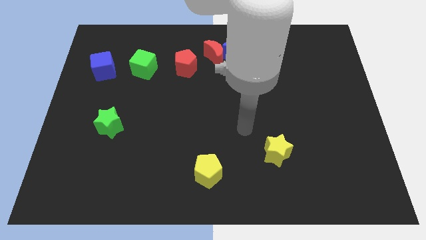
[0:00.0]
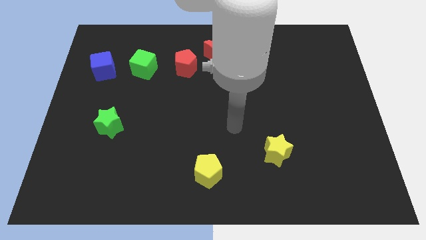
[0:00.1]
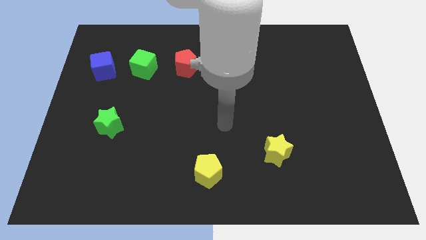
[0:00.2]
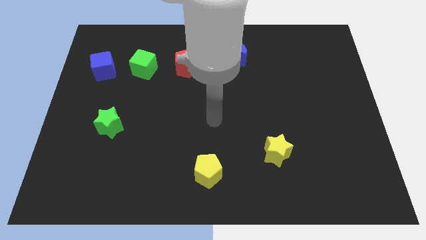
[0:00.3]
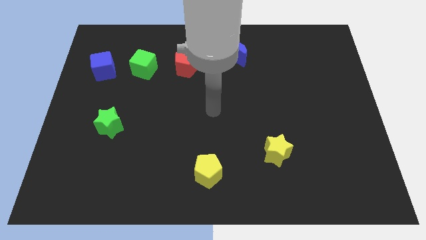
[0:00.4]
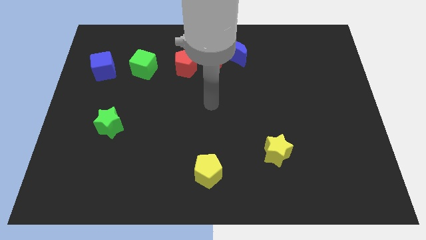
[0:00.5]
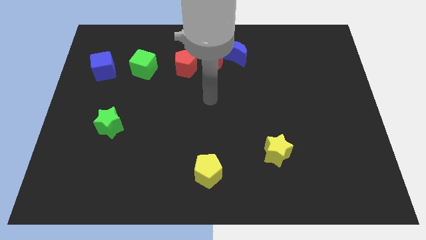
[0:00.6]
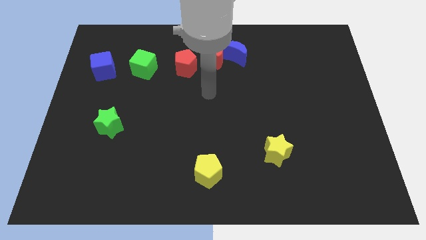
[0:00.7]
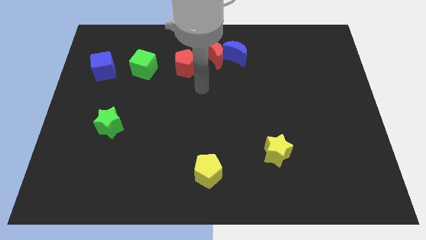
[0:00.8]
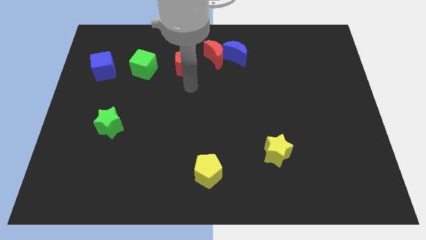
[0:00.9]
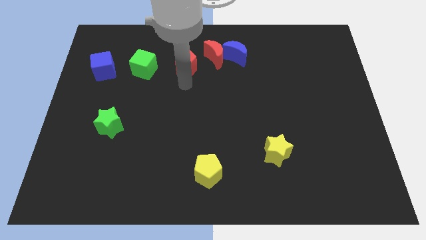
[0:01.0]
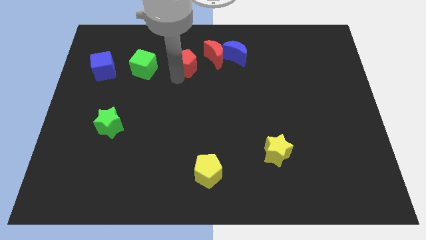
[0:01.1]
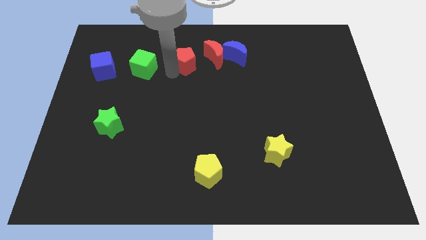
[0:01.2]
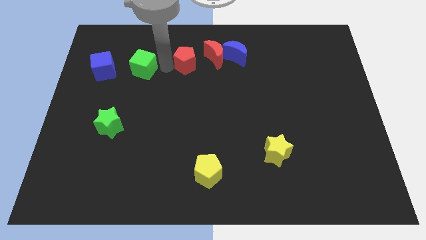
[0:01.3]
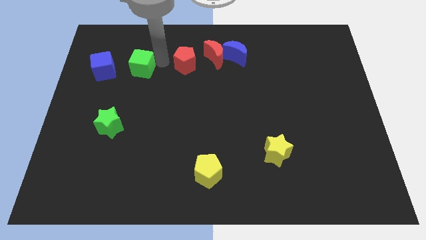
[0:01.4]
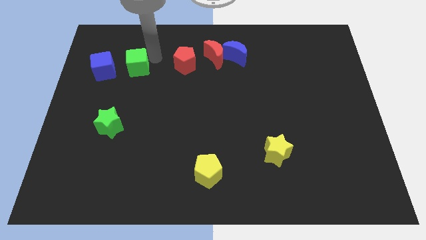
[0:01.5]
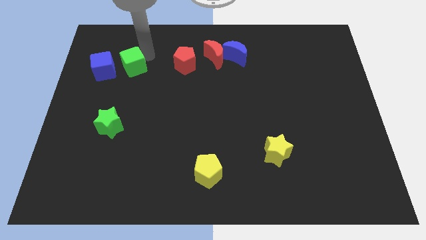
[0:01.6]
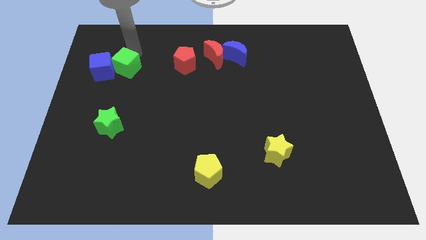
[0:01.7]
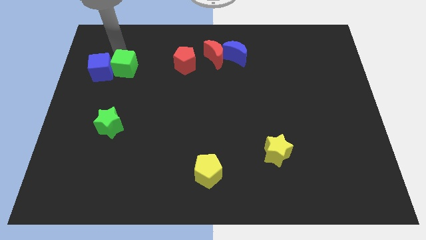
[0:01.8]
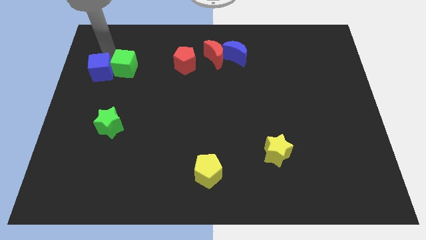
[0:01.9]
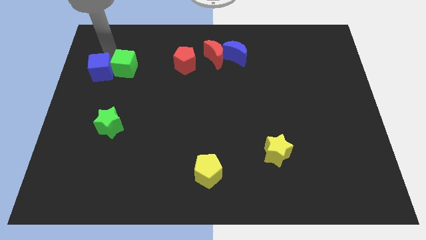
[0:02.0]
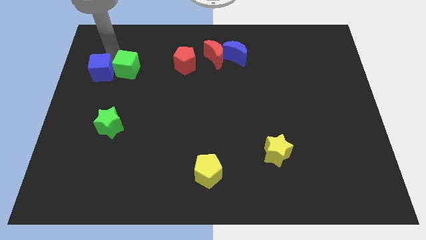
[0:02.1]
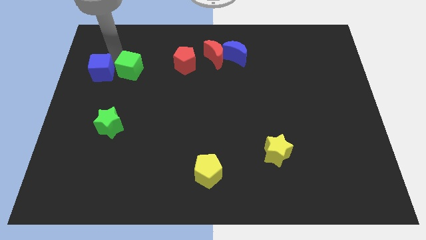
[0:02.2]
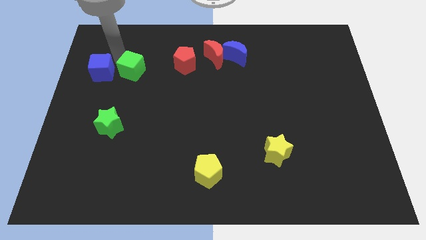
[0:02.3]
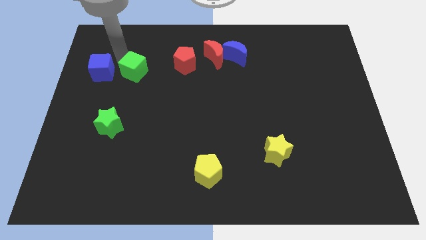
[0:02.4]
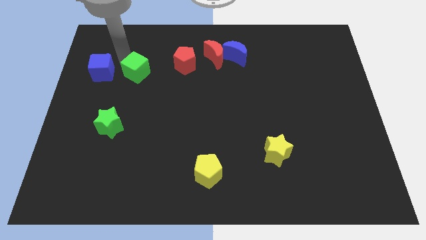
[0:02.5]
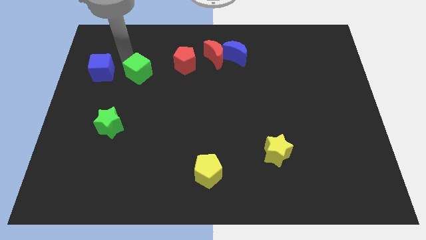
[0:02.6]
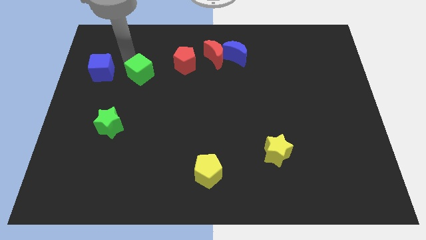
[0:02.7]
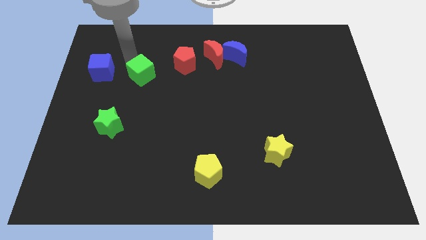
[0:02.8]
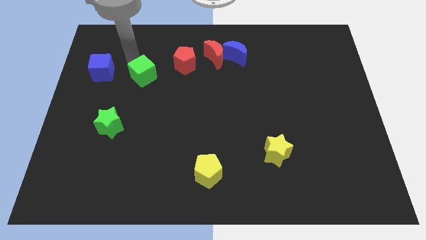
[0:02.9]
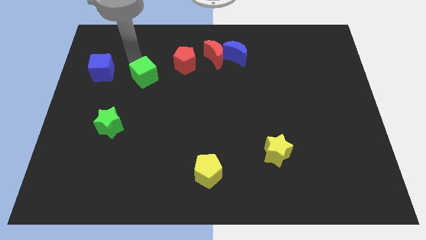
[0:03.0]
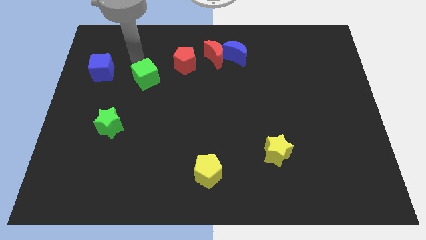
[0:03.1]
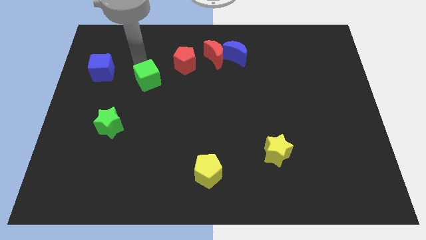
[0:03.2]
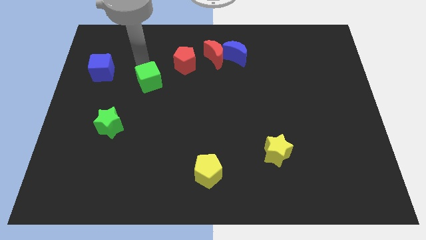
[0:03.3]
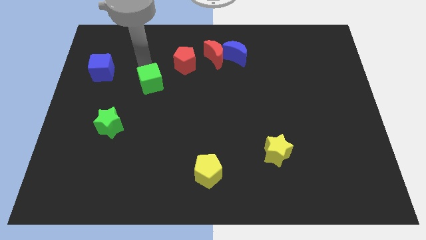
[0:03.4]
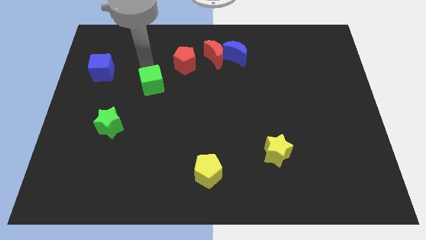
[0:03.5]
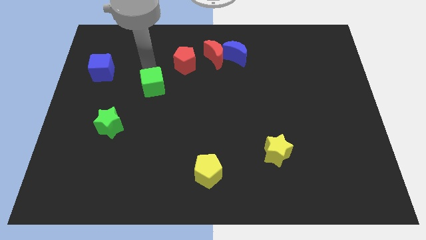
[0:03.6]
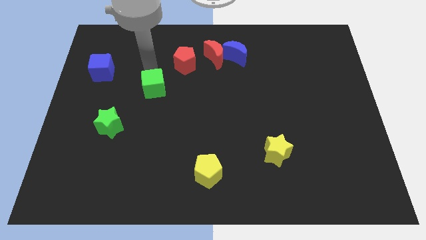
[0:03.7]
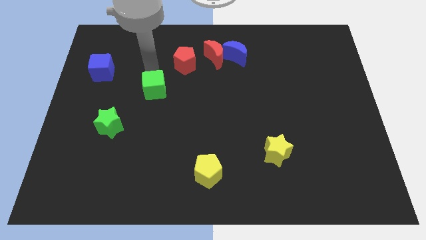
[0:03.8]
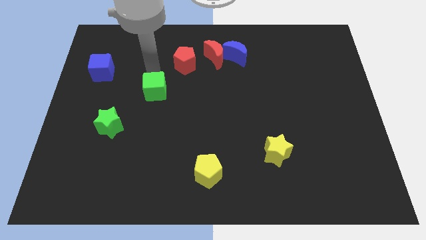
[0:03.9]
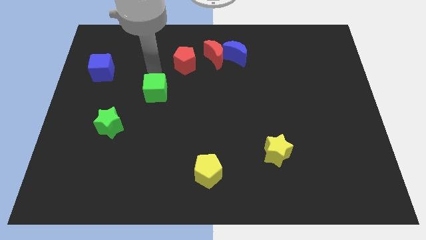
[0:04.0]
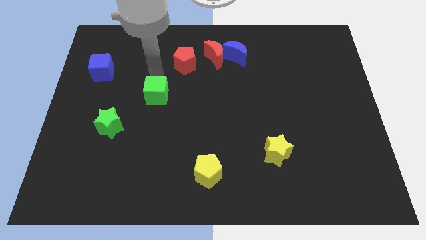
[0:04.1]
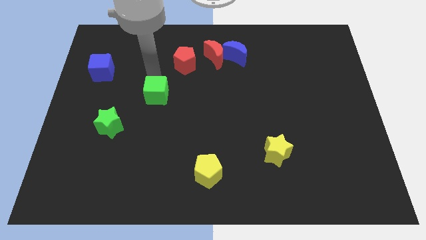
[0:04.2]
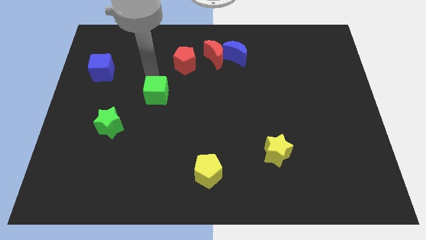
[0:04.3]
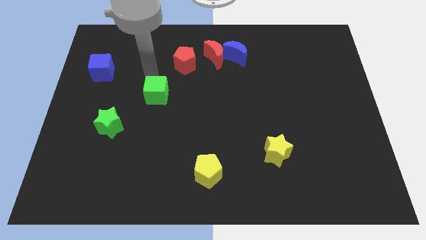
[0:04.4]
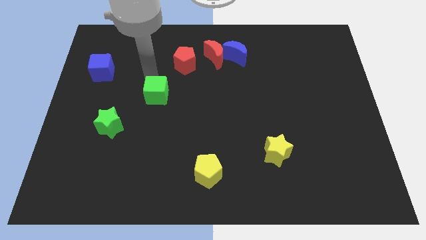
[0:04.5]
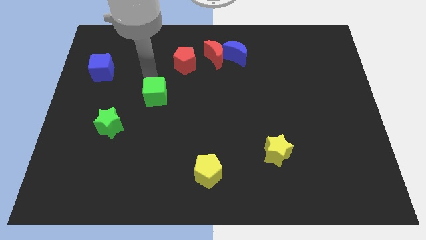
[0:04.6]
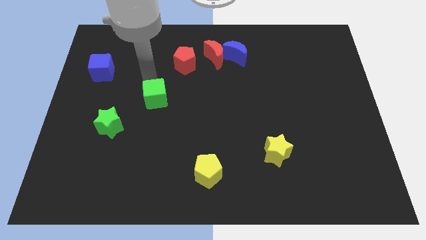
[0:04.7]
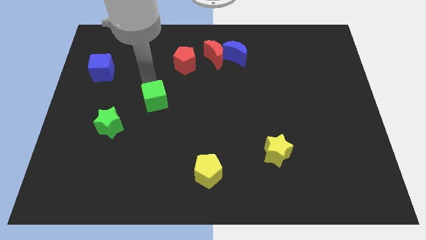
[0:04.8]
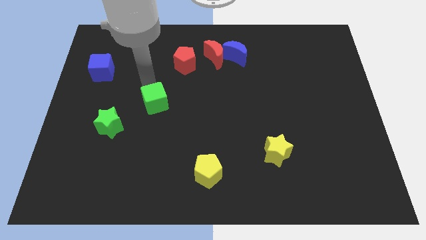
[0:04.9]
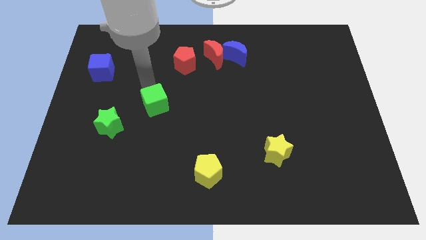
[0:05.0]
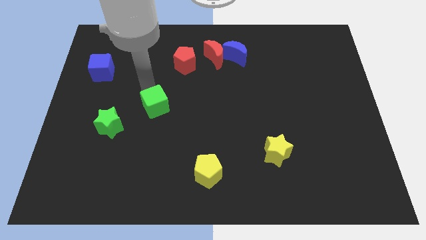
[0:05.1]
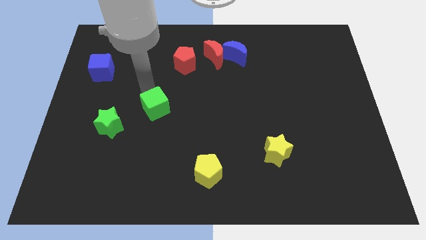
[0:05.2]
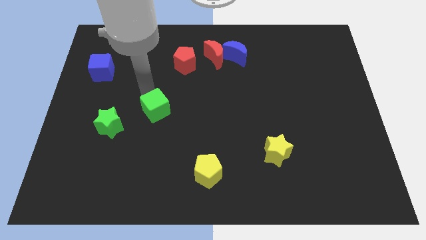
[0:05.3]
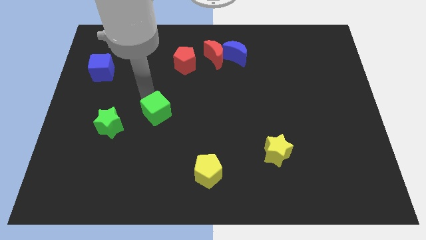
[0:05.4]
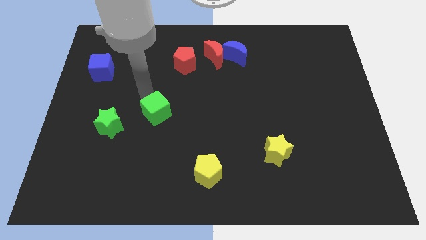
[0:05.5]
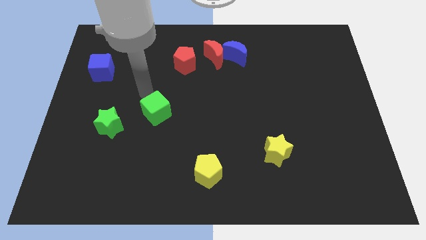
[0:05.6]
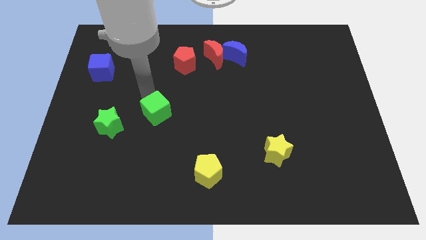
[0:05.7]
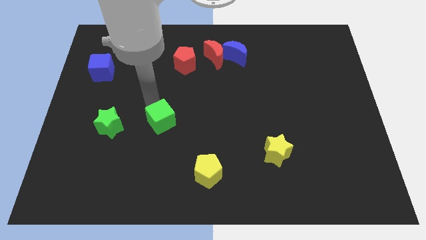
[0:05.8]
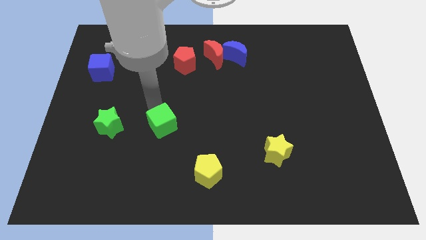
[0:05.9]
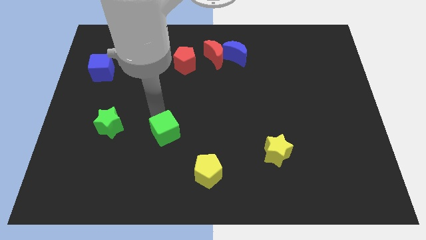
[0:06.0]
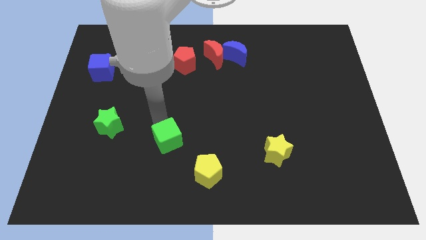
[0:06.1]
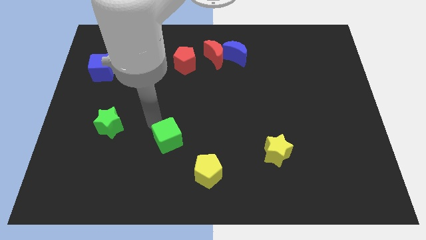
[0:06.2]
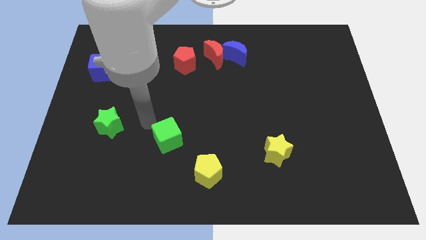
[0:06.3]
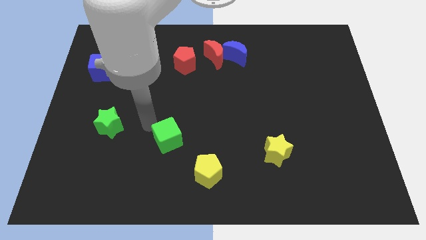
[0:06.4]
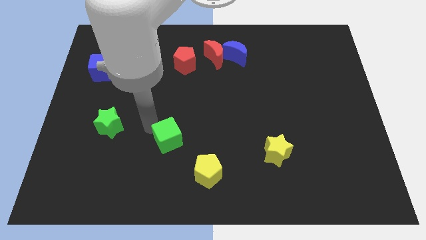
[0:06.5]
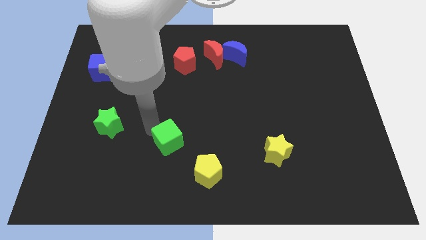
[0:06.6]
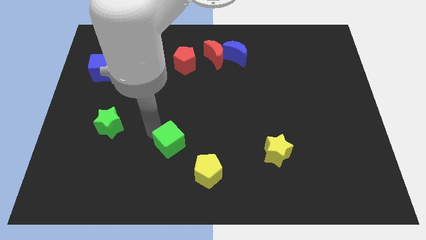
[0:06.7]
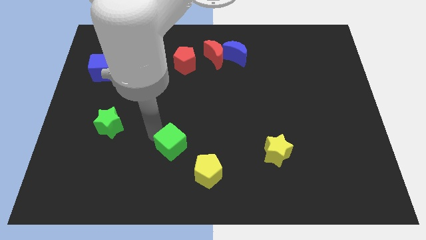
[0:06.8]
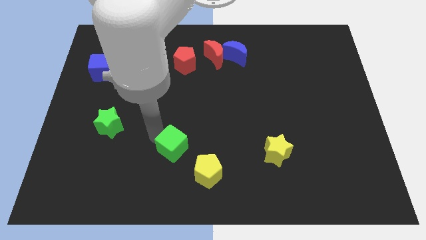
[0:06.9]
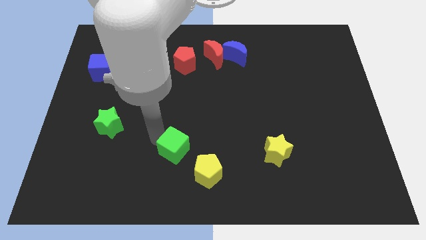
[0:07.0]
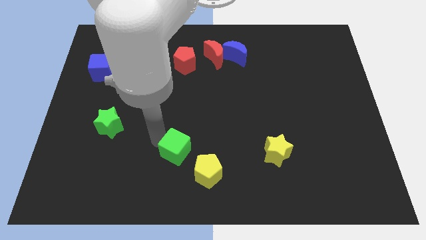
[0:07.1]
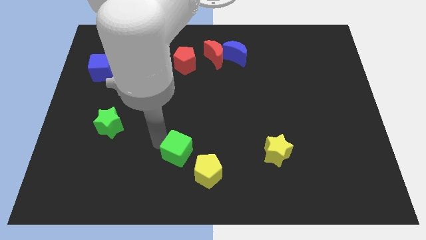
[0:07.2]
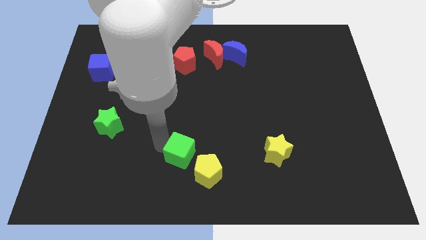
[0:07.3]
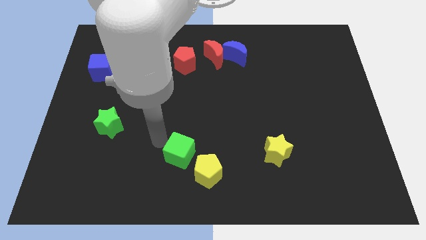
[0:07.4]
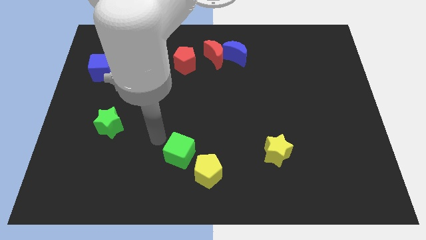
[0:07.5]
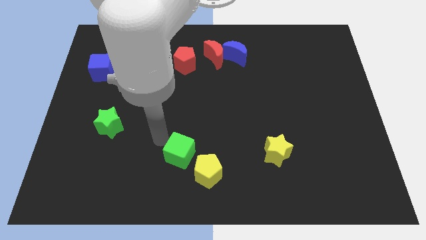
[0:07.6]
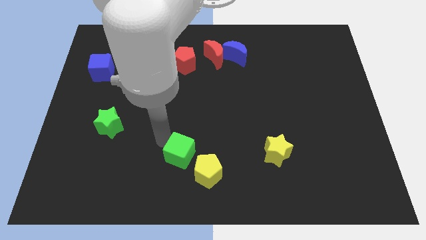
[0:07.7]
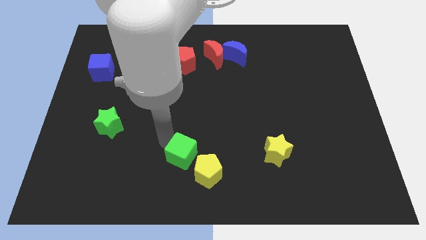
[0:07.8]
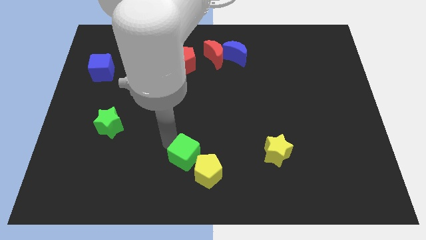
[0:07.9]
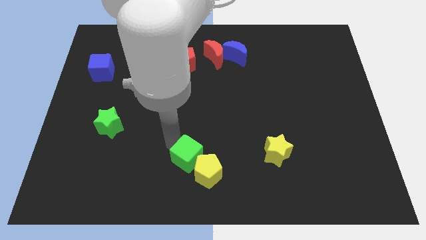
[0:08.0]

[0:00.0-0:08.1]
move the green cube close to the yellow pentagon

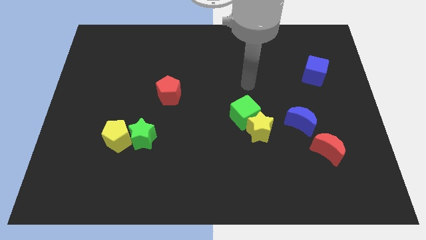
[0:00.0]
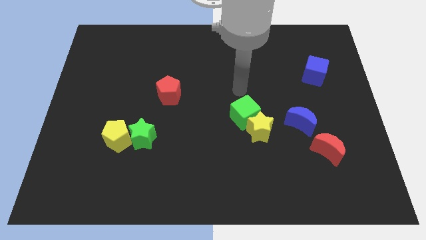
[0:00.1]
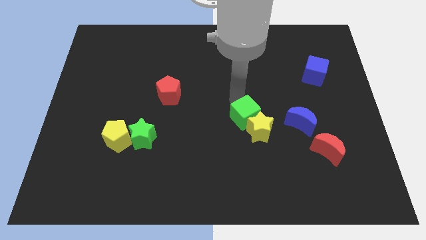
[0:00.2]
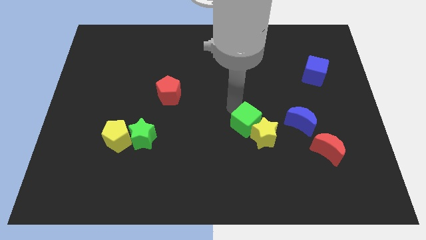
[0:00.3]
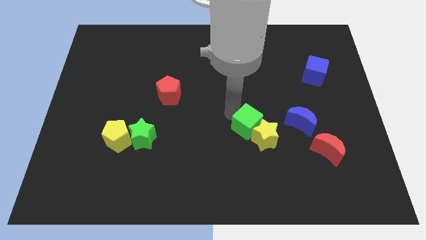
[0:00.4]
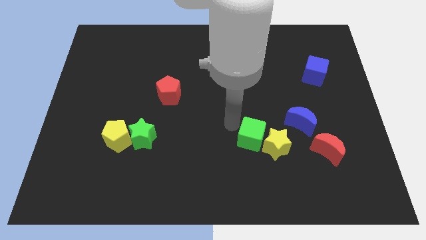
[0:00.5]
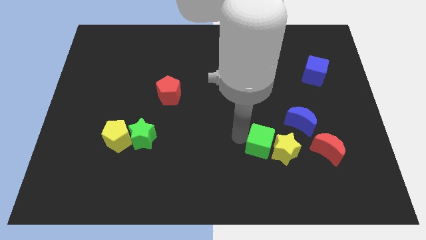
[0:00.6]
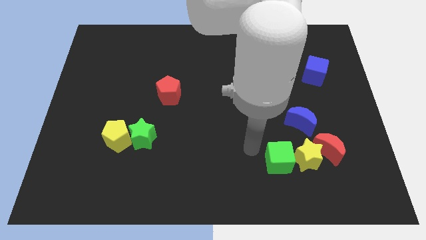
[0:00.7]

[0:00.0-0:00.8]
push the yellow star next to the red moon
